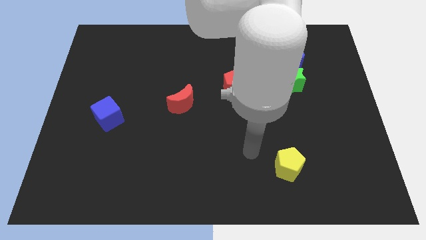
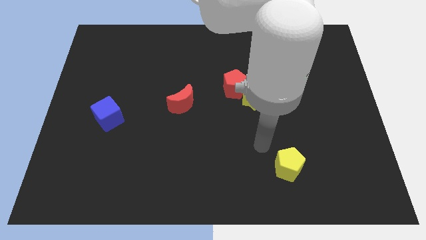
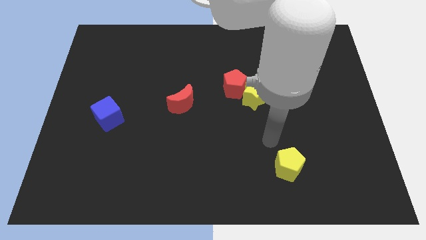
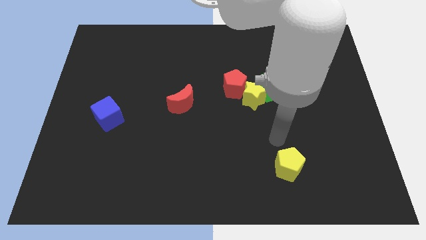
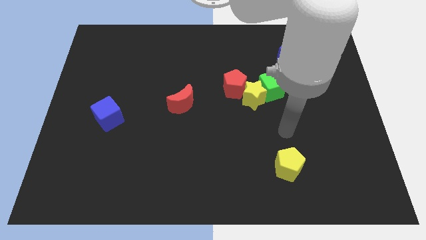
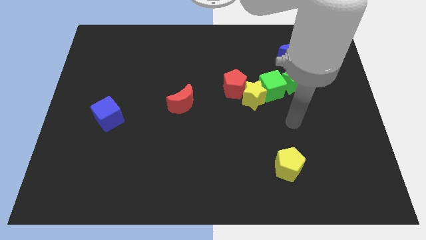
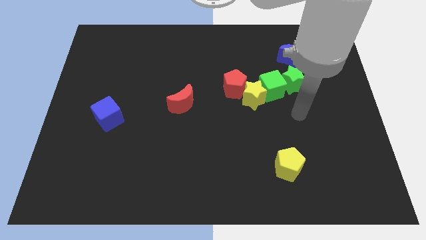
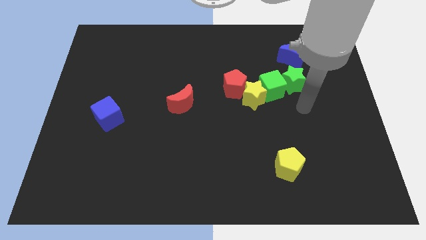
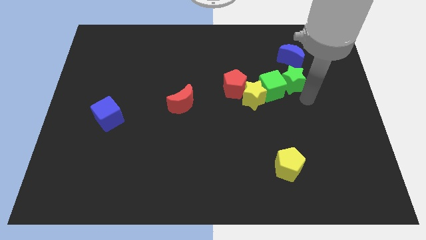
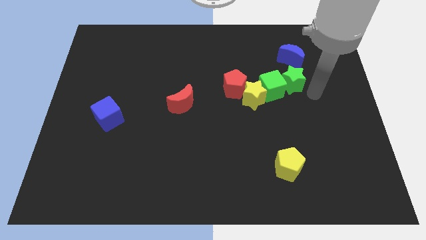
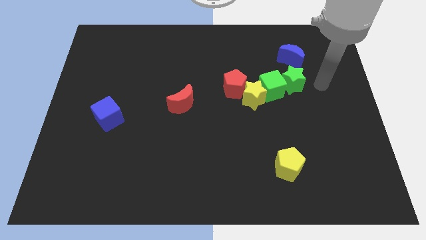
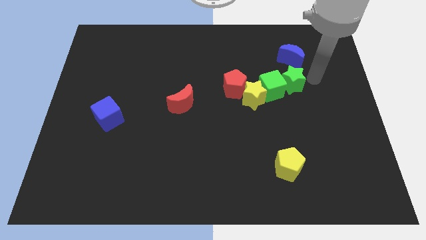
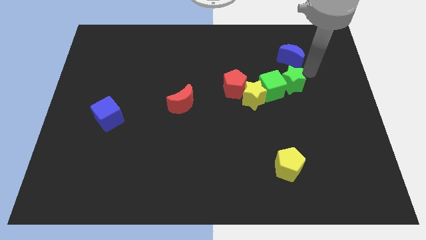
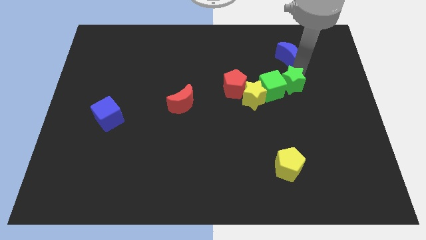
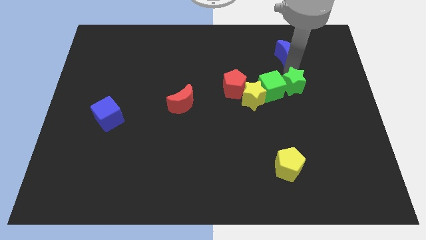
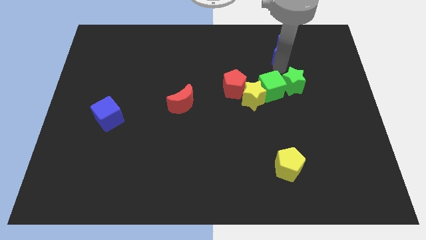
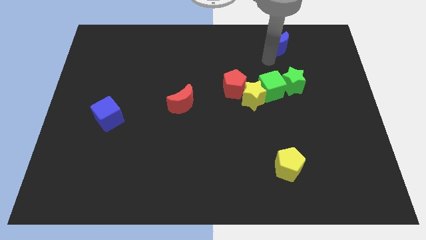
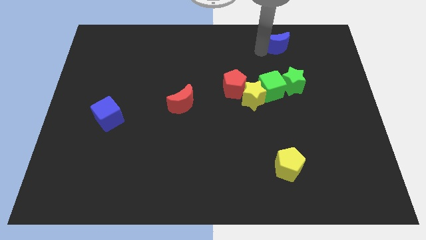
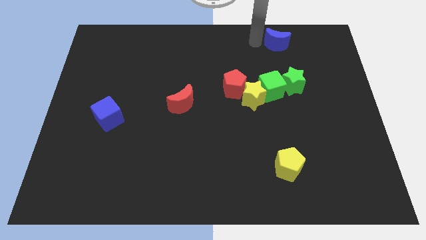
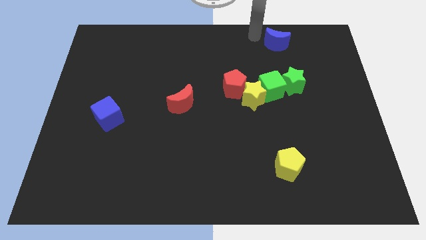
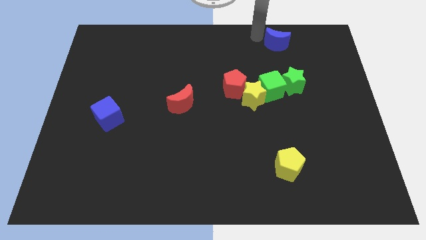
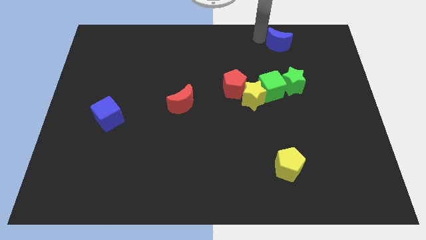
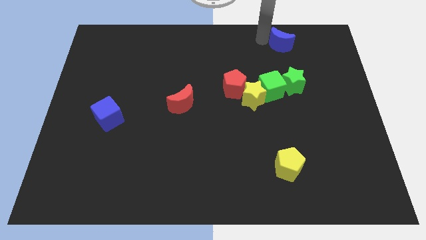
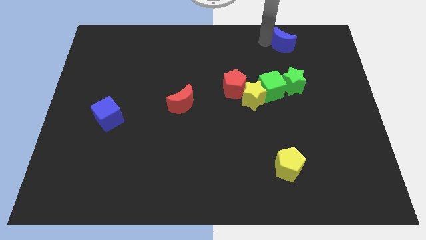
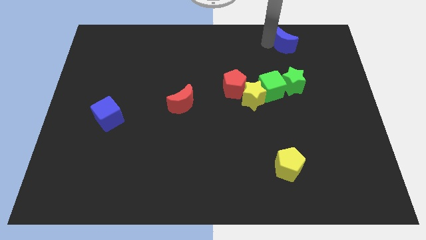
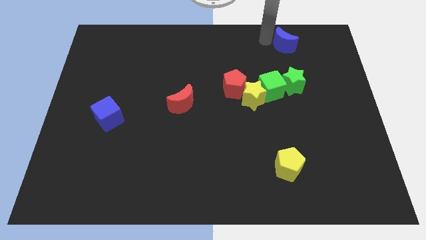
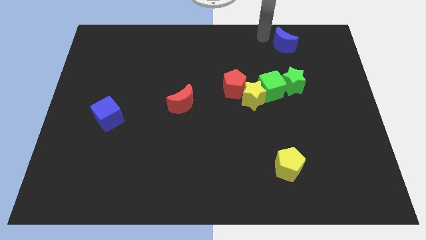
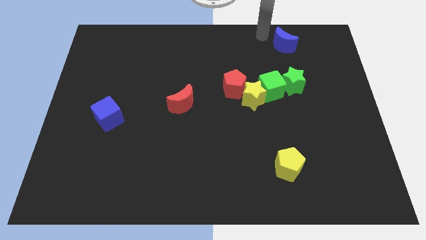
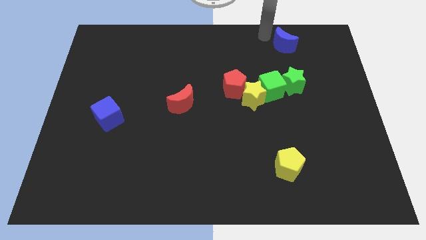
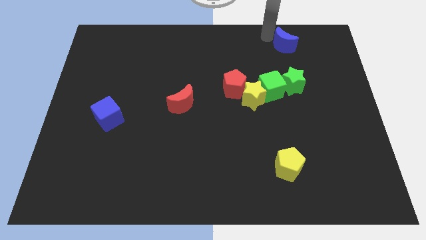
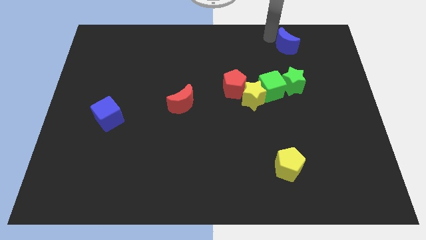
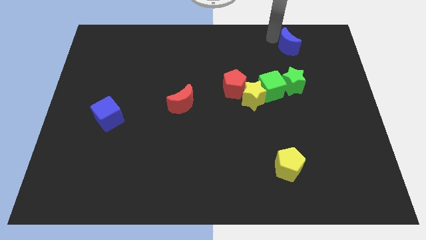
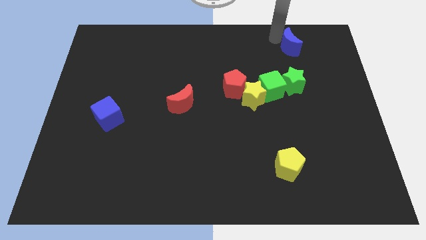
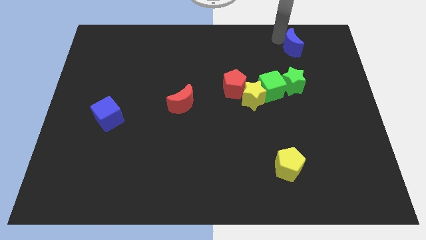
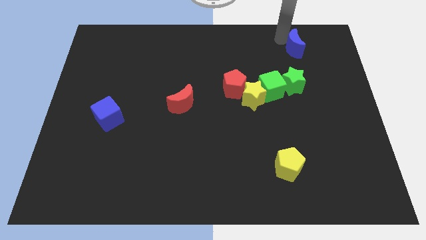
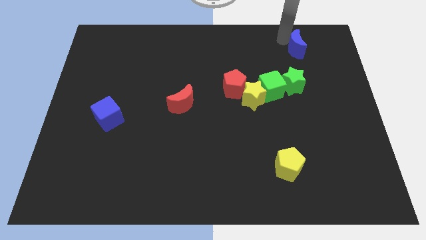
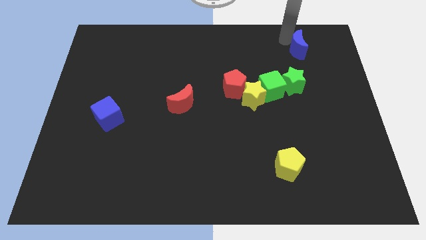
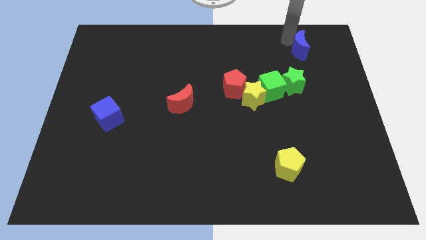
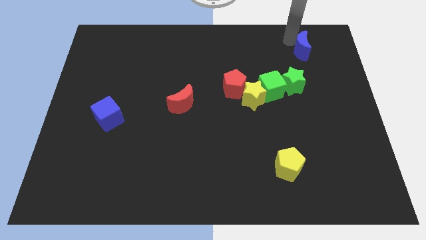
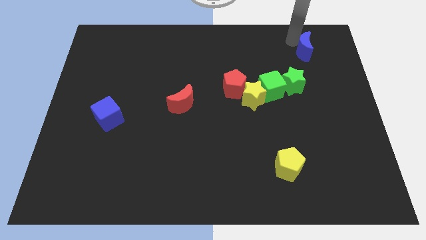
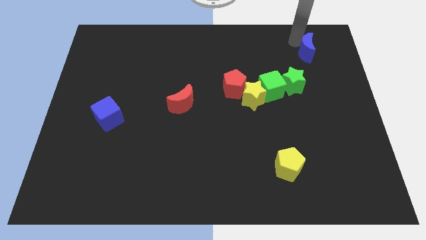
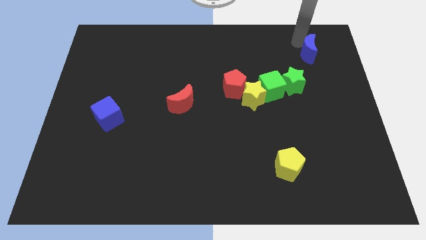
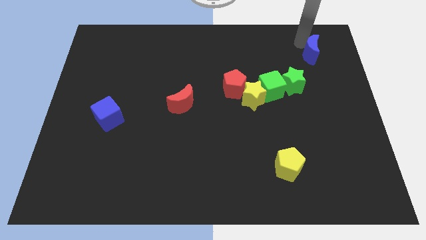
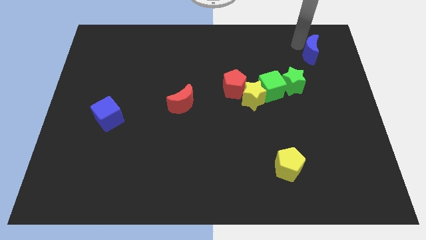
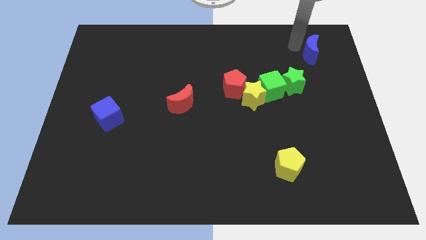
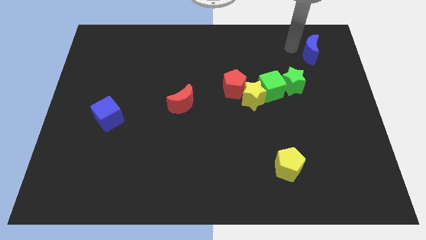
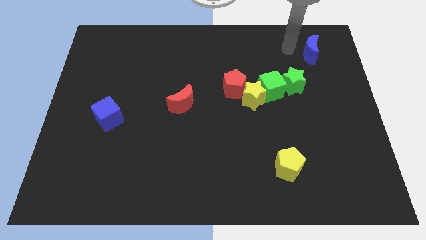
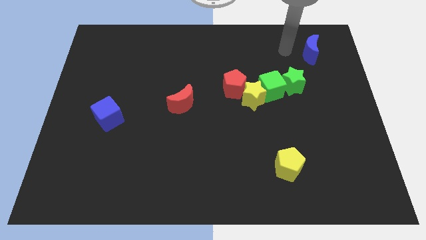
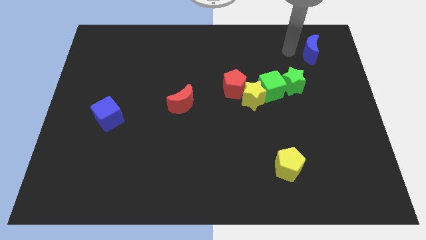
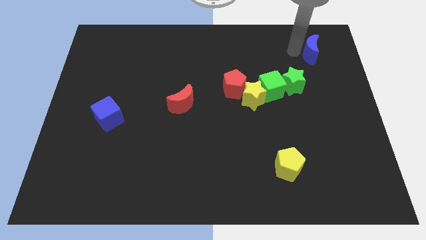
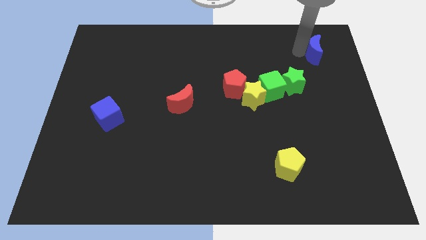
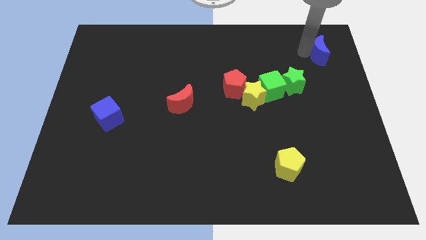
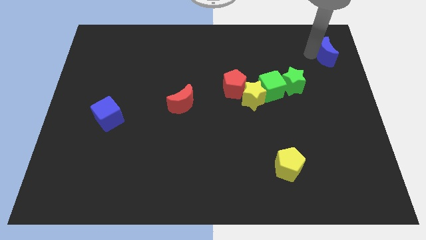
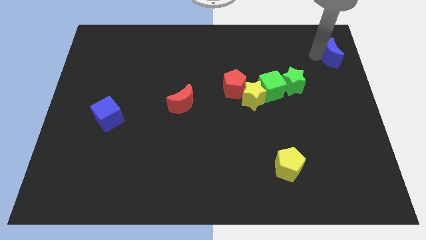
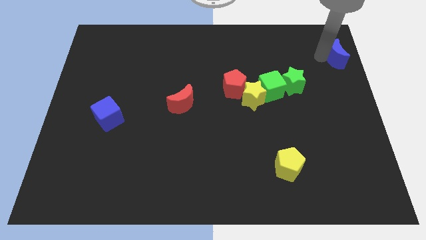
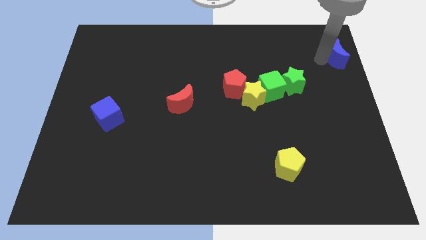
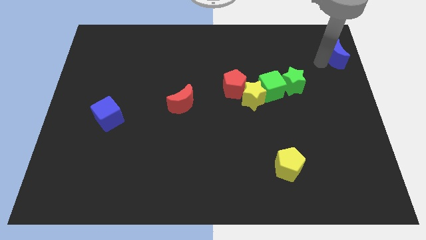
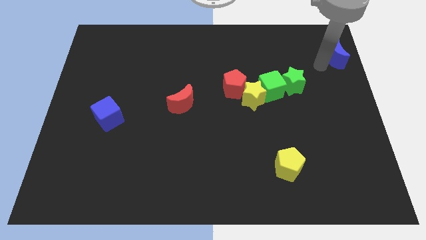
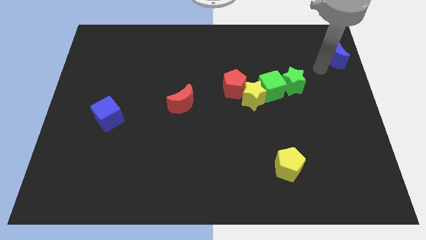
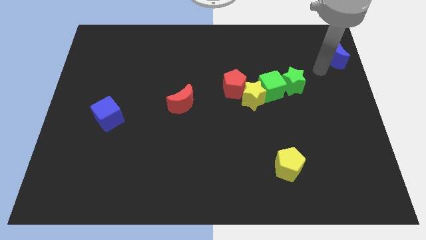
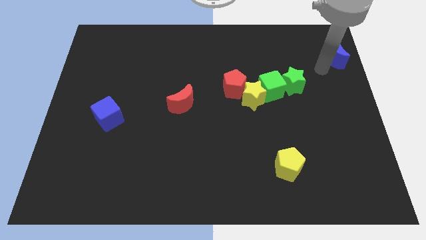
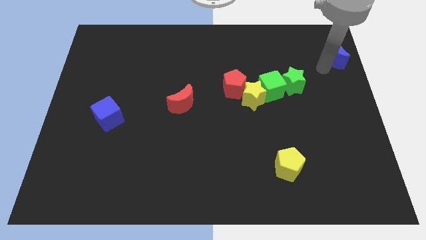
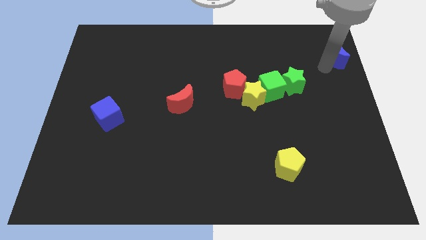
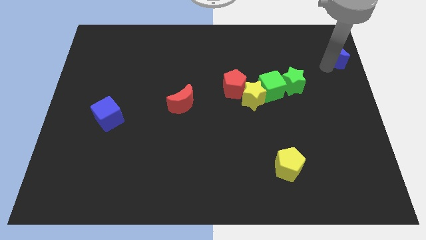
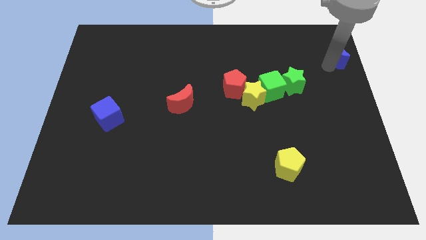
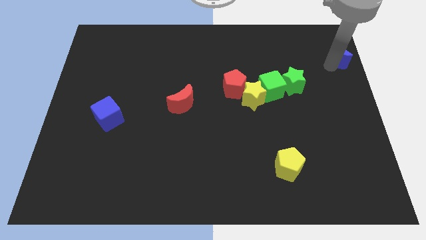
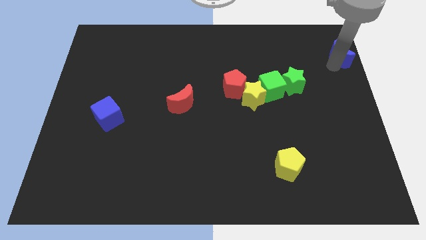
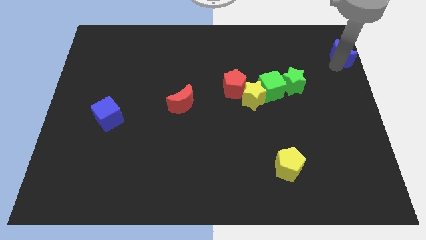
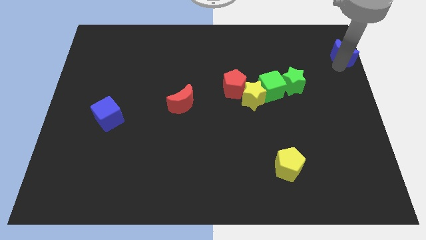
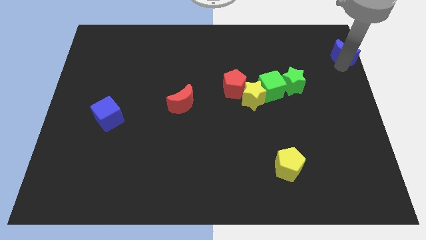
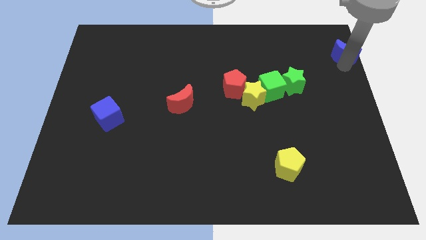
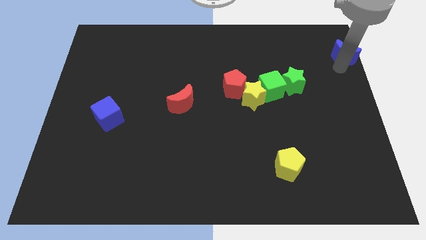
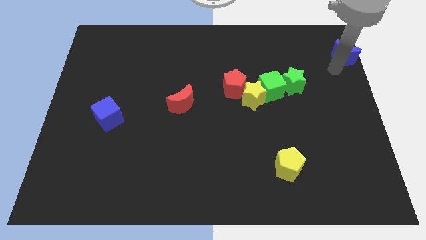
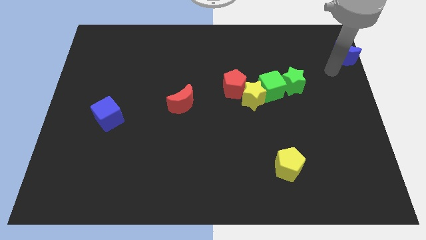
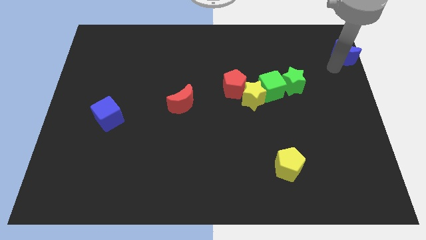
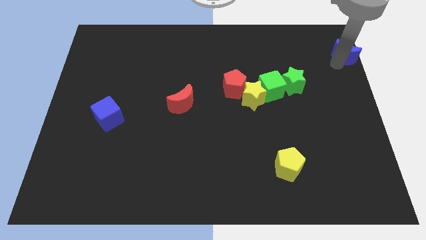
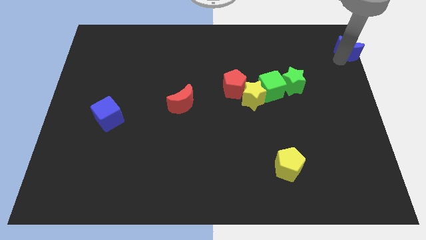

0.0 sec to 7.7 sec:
push the blue moon to the top right of the board
